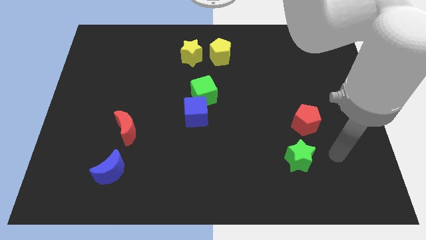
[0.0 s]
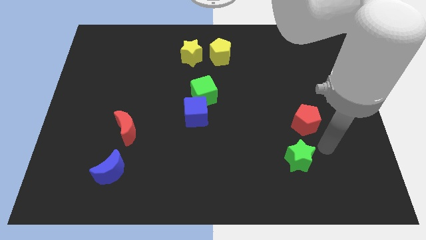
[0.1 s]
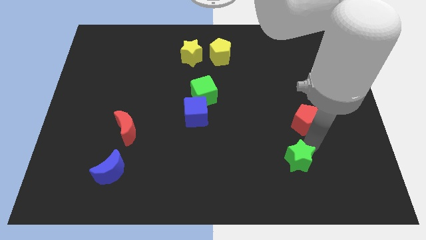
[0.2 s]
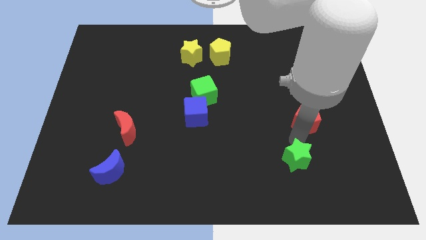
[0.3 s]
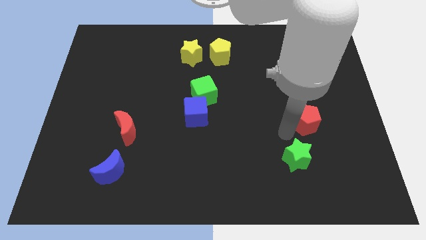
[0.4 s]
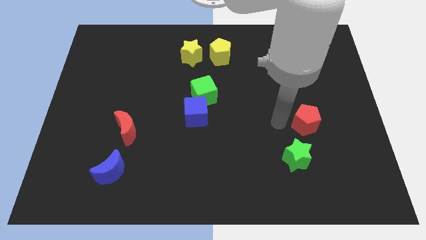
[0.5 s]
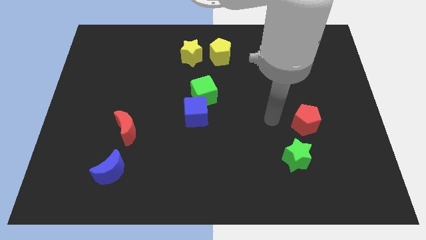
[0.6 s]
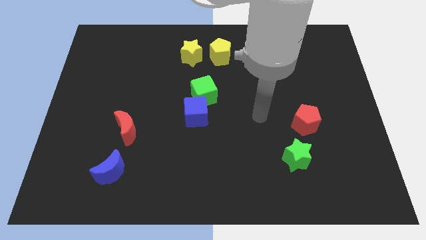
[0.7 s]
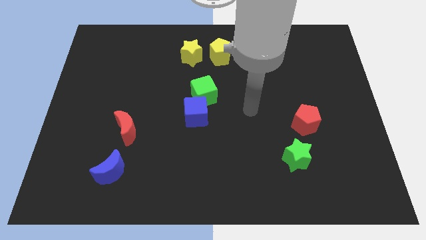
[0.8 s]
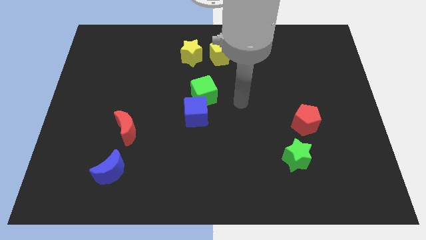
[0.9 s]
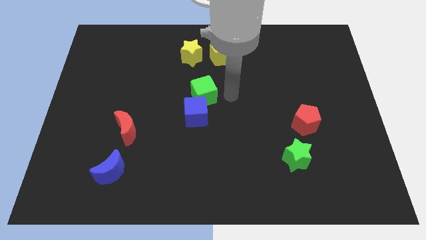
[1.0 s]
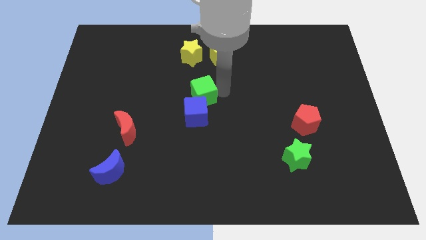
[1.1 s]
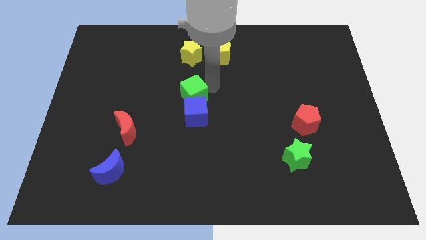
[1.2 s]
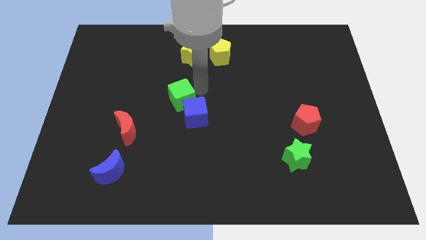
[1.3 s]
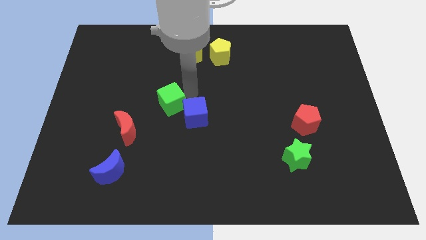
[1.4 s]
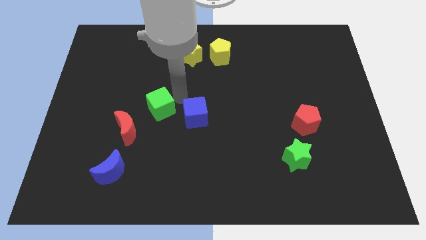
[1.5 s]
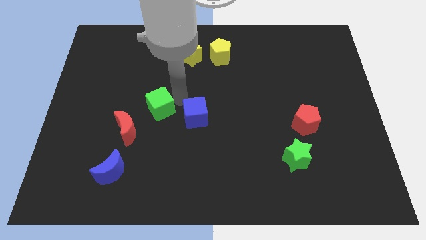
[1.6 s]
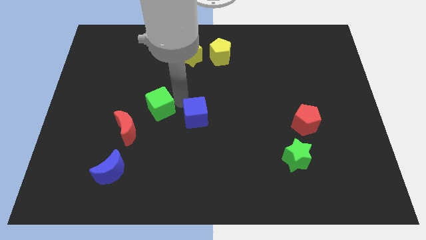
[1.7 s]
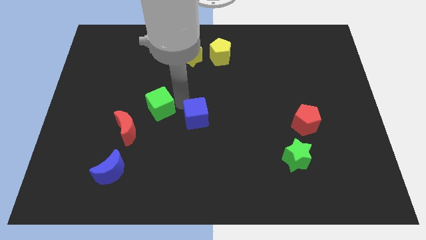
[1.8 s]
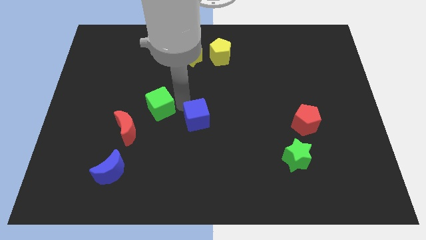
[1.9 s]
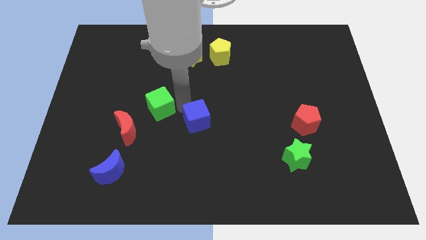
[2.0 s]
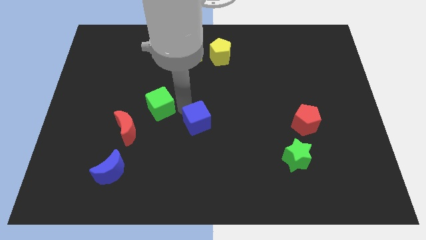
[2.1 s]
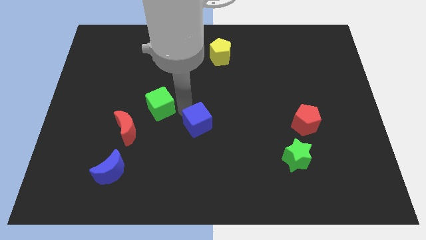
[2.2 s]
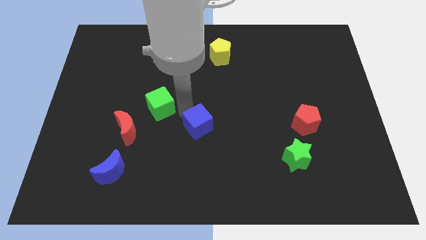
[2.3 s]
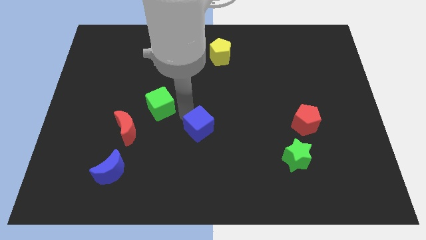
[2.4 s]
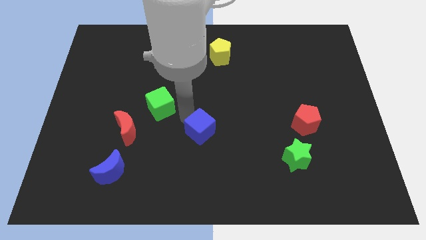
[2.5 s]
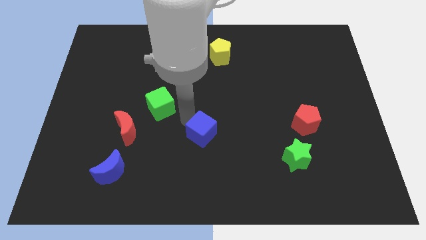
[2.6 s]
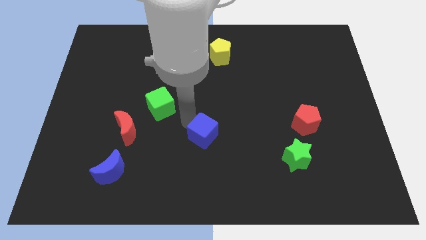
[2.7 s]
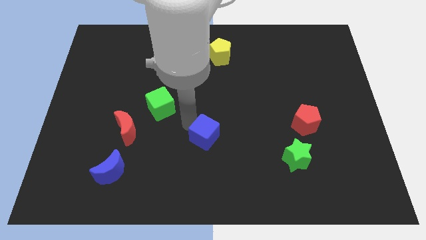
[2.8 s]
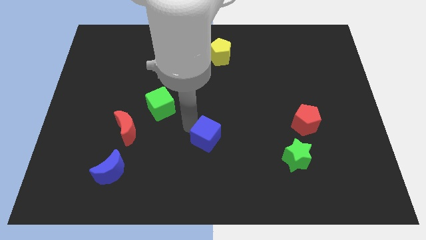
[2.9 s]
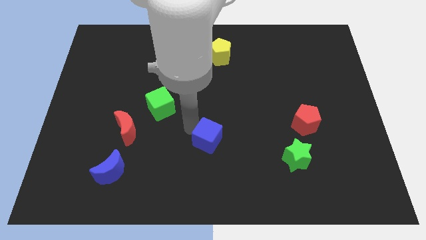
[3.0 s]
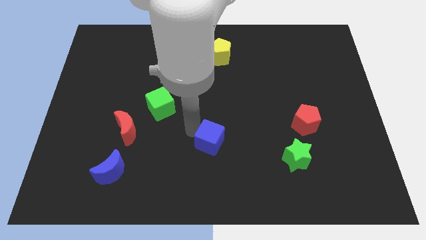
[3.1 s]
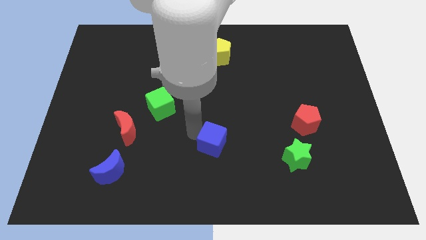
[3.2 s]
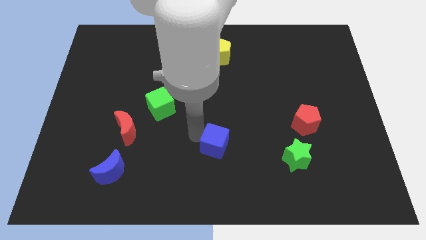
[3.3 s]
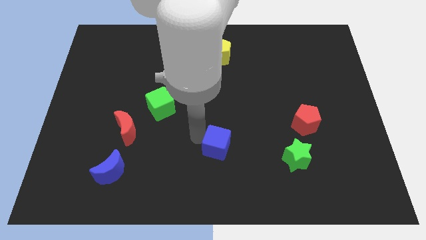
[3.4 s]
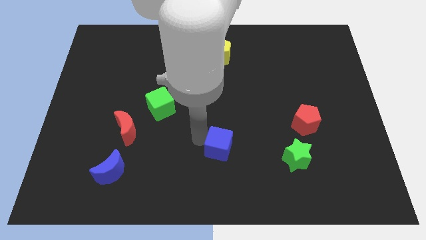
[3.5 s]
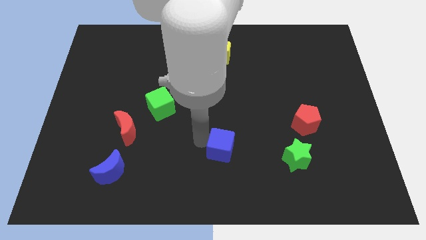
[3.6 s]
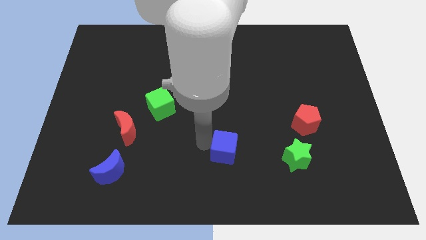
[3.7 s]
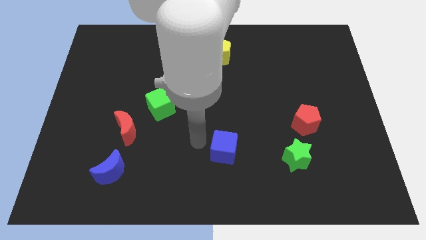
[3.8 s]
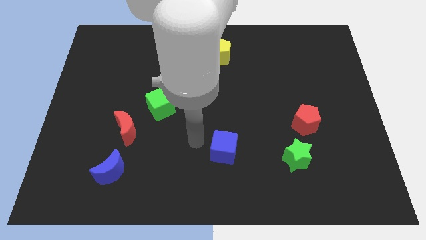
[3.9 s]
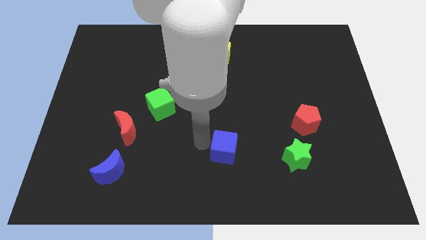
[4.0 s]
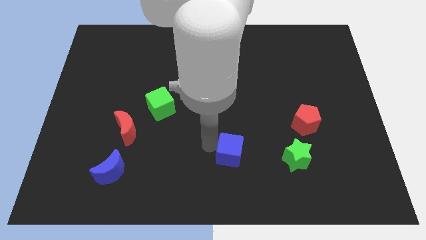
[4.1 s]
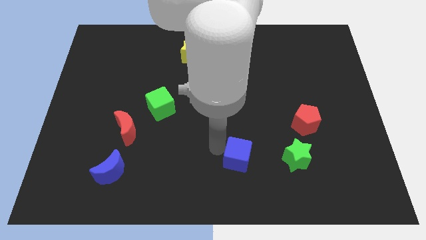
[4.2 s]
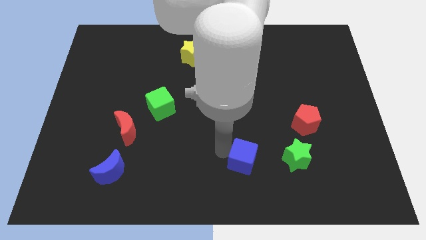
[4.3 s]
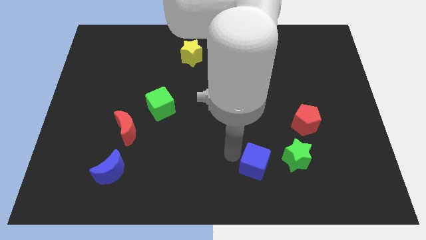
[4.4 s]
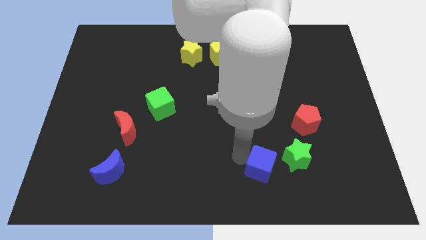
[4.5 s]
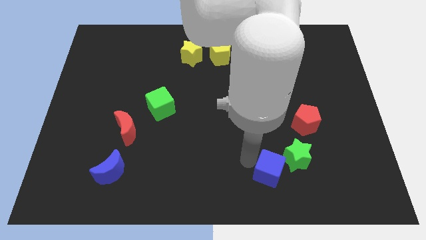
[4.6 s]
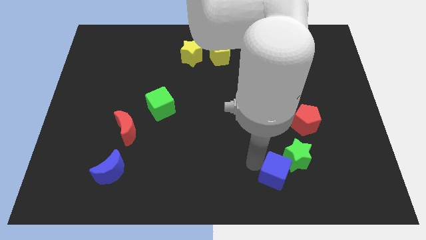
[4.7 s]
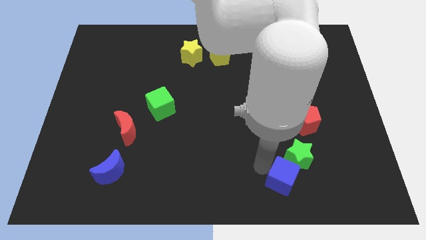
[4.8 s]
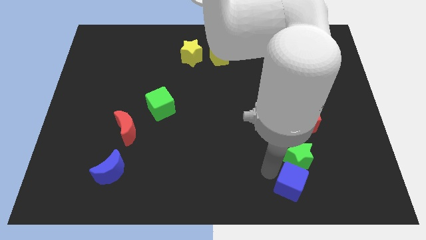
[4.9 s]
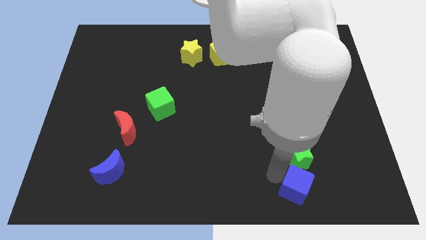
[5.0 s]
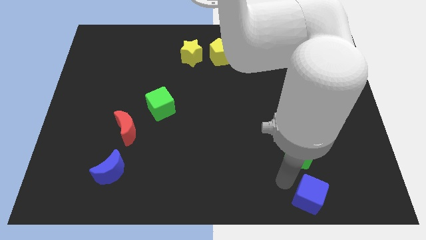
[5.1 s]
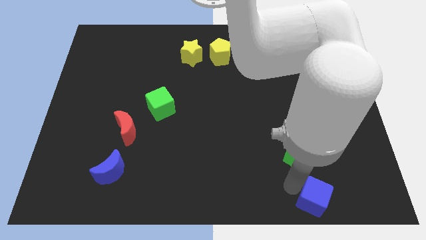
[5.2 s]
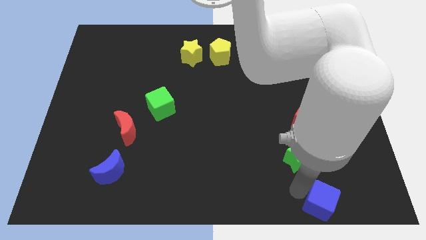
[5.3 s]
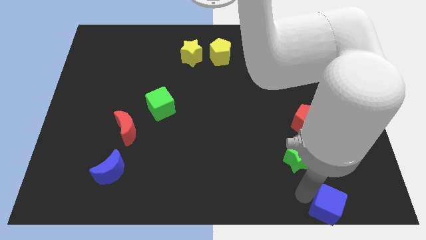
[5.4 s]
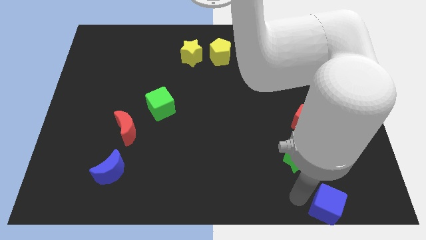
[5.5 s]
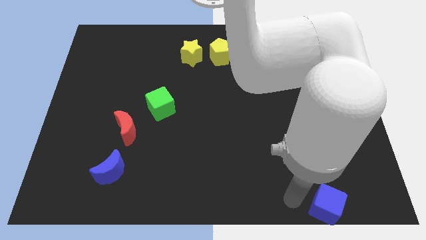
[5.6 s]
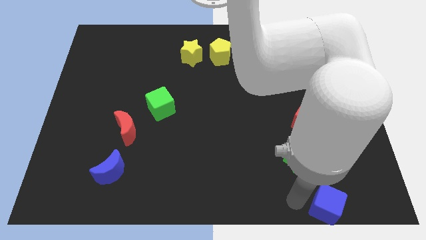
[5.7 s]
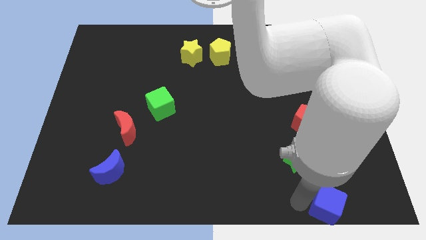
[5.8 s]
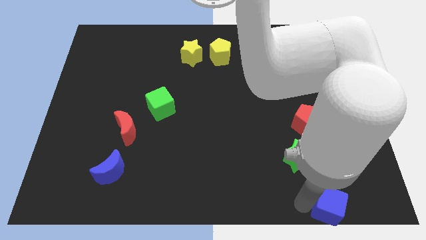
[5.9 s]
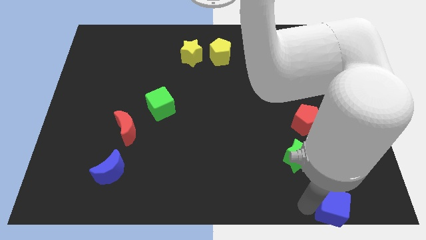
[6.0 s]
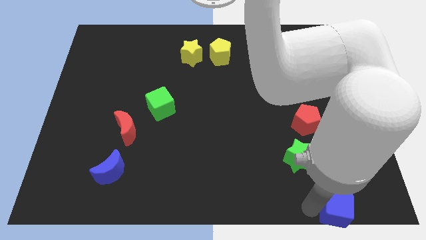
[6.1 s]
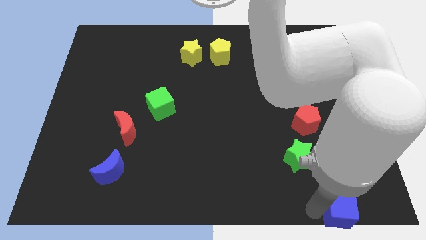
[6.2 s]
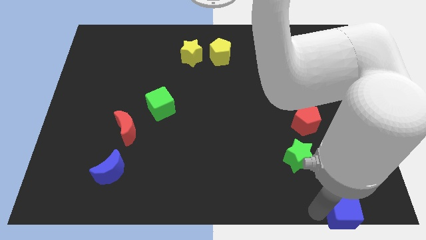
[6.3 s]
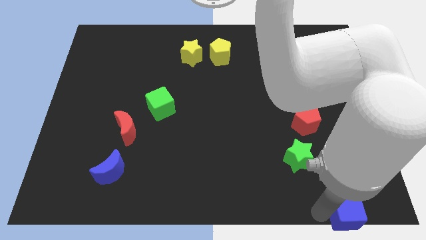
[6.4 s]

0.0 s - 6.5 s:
put the blue cube to the lower right corner

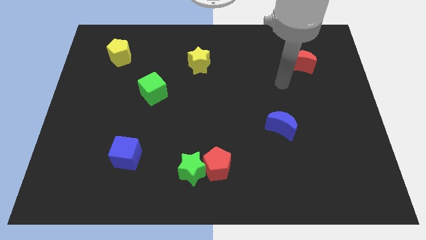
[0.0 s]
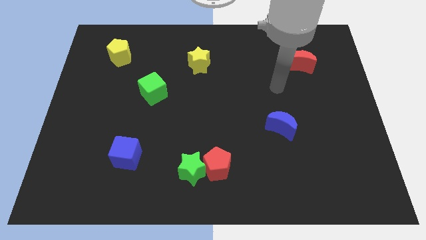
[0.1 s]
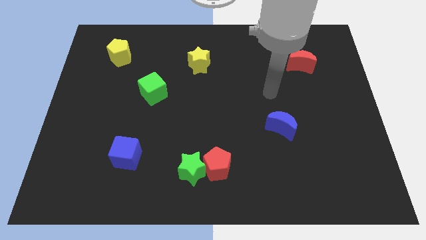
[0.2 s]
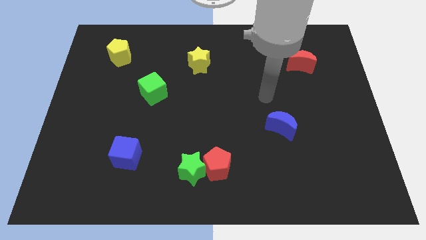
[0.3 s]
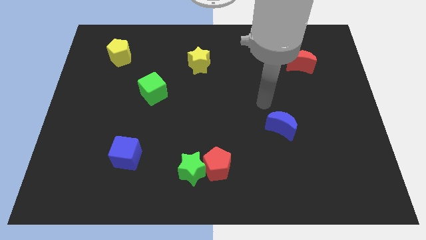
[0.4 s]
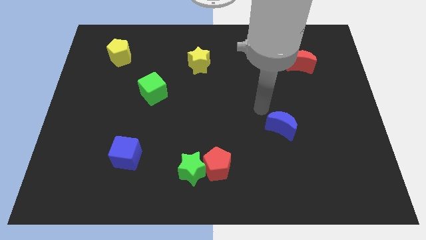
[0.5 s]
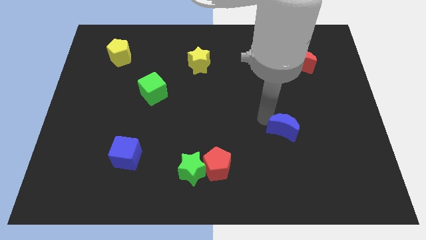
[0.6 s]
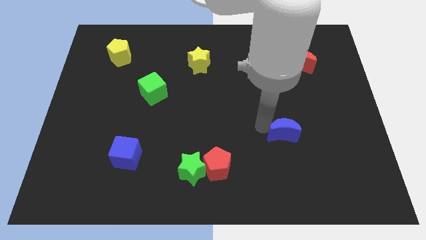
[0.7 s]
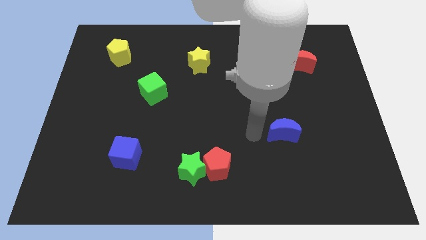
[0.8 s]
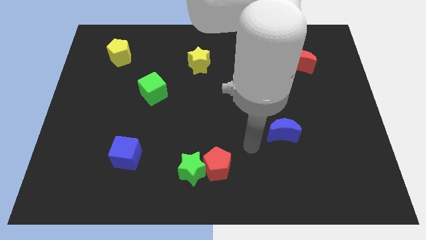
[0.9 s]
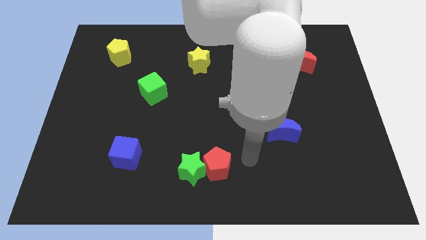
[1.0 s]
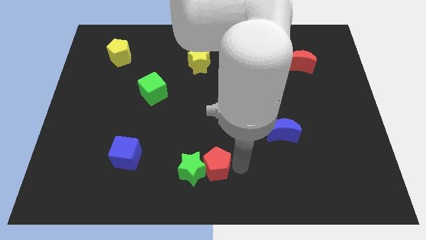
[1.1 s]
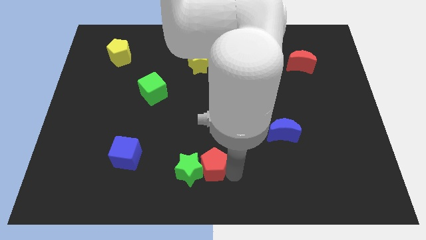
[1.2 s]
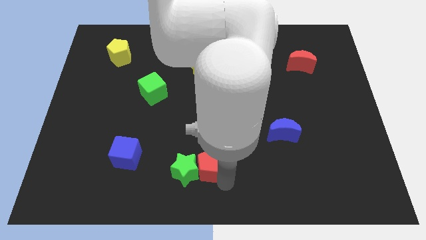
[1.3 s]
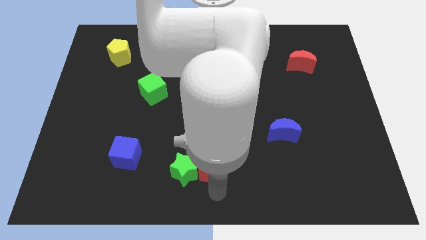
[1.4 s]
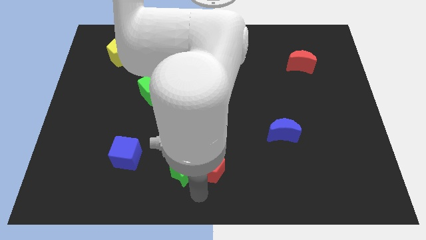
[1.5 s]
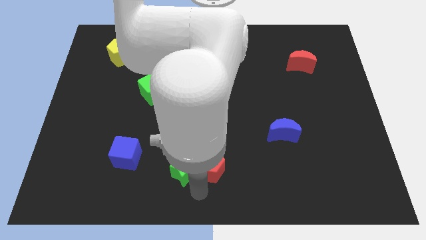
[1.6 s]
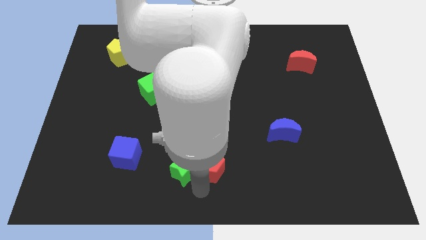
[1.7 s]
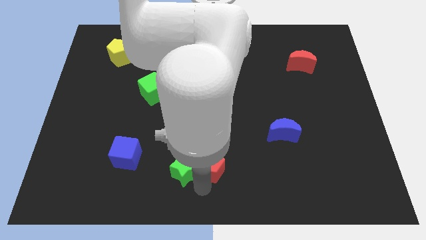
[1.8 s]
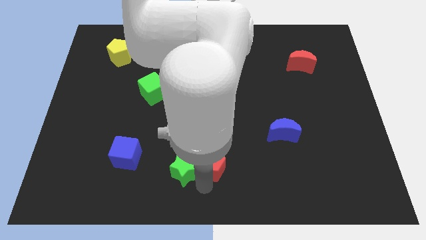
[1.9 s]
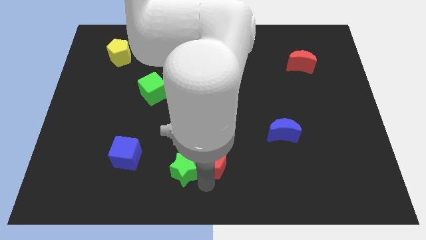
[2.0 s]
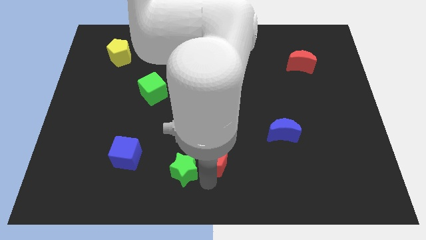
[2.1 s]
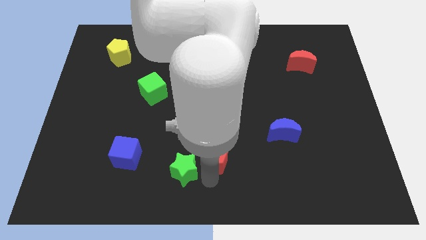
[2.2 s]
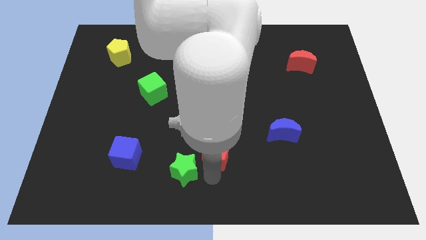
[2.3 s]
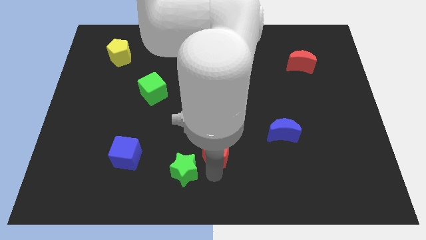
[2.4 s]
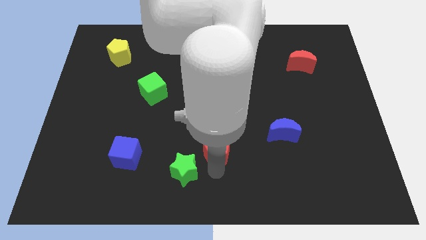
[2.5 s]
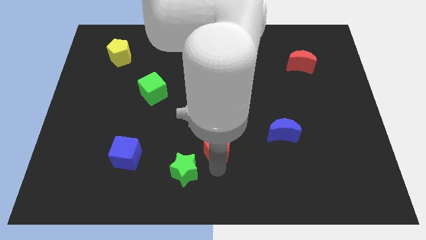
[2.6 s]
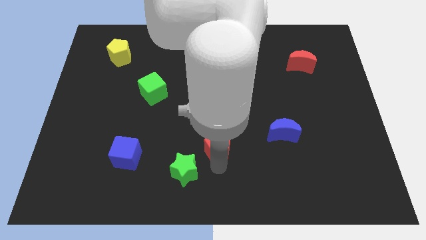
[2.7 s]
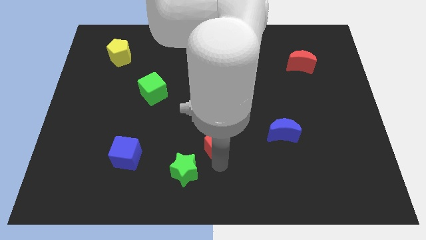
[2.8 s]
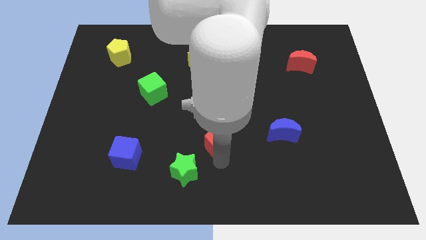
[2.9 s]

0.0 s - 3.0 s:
put the red pentagon to the middle
